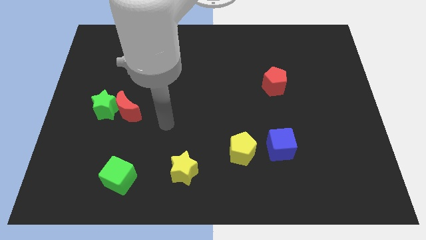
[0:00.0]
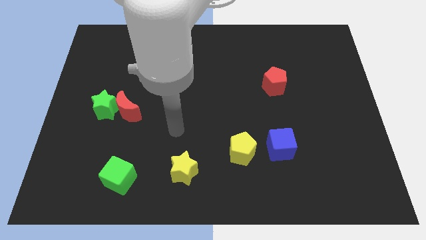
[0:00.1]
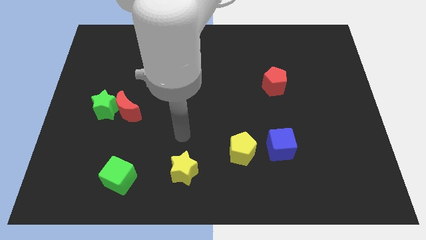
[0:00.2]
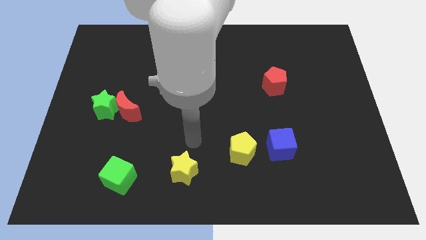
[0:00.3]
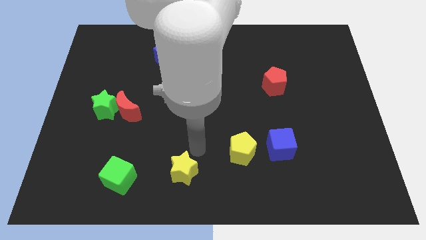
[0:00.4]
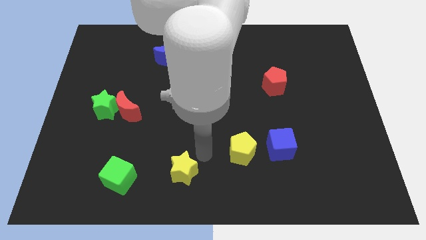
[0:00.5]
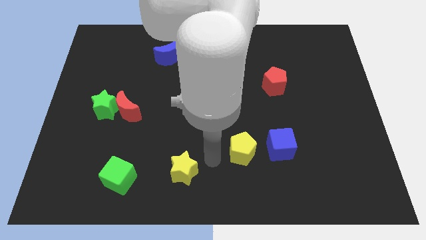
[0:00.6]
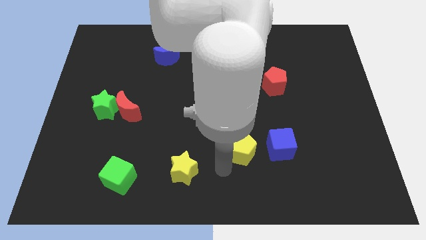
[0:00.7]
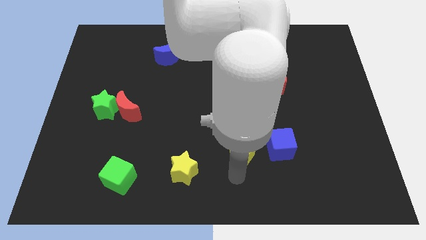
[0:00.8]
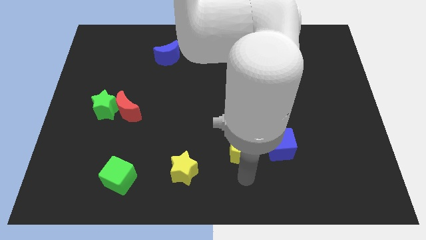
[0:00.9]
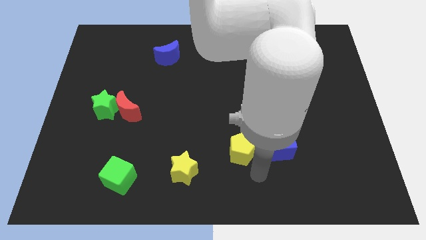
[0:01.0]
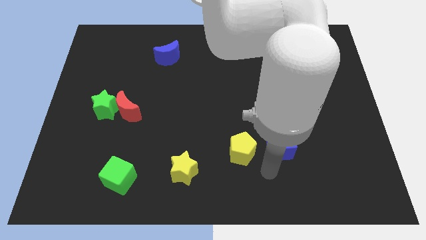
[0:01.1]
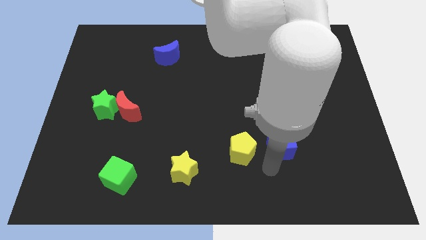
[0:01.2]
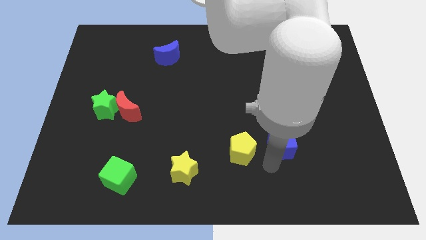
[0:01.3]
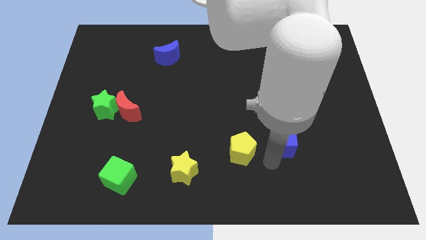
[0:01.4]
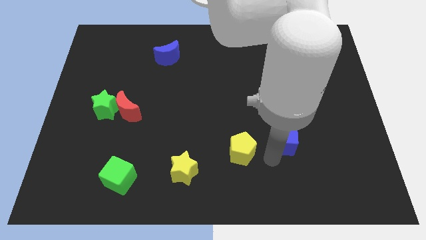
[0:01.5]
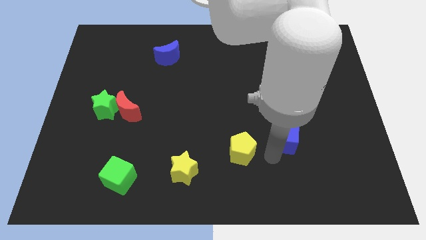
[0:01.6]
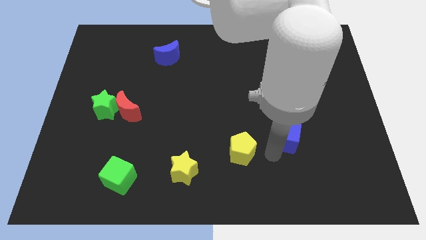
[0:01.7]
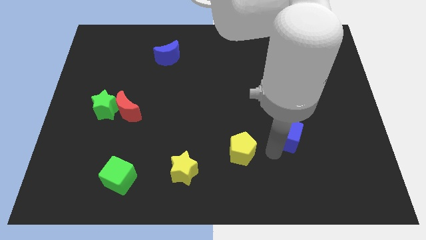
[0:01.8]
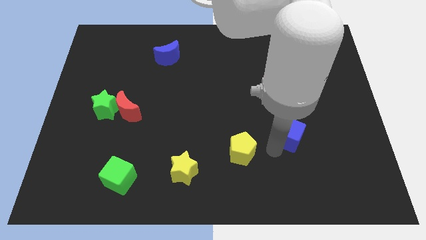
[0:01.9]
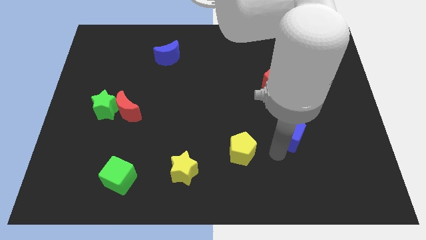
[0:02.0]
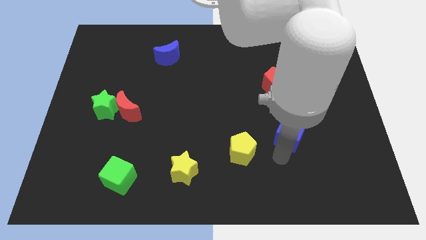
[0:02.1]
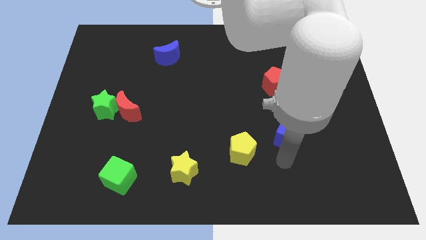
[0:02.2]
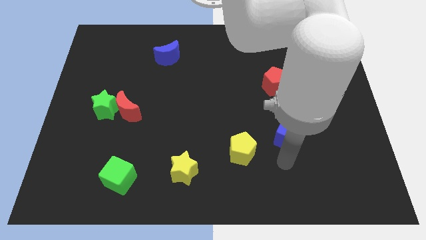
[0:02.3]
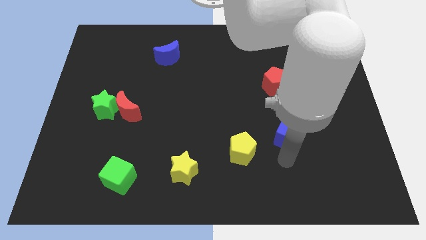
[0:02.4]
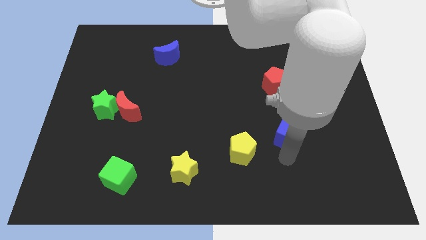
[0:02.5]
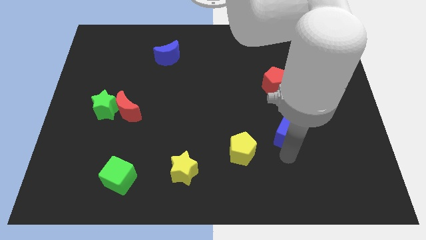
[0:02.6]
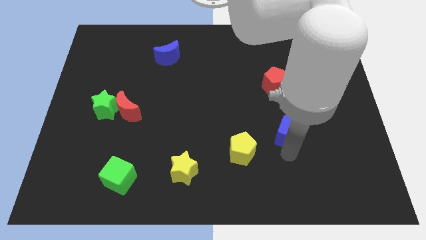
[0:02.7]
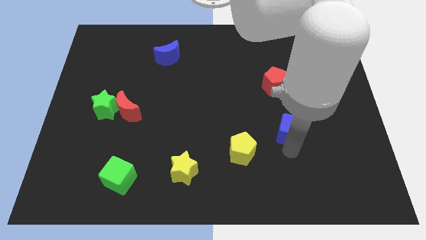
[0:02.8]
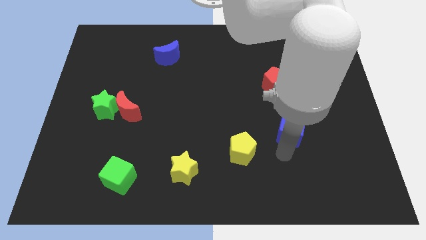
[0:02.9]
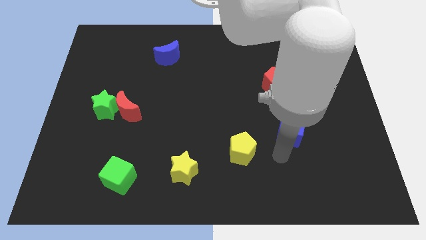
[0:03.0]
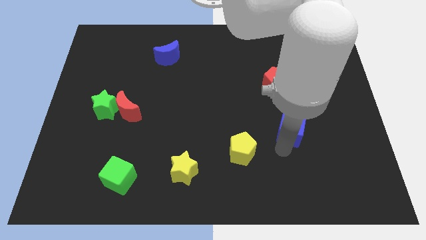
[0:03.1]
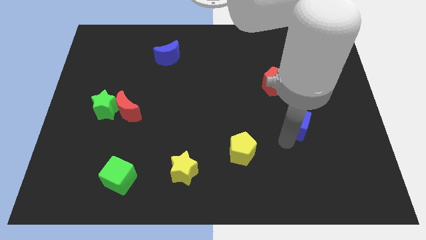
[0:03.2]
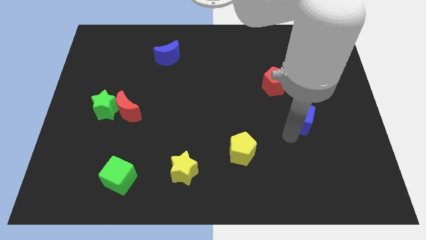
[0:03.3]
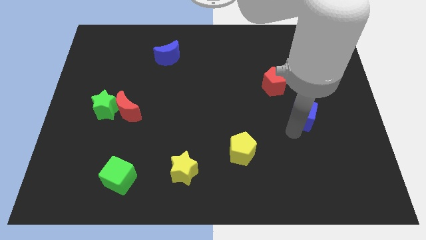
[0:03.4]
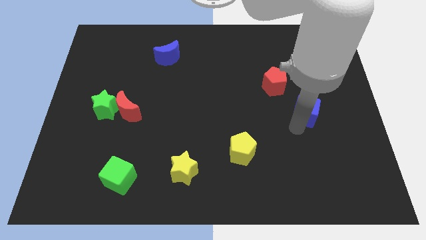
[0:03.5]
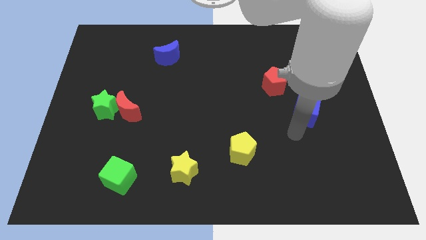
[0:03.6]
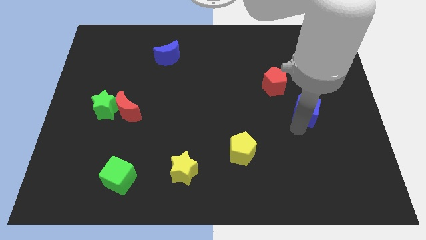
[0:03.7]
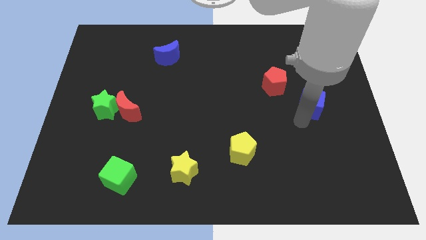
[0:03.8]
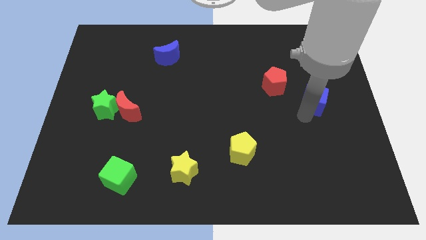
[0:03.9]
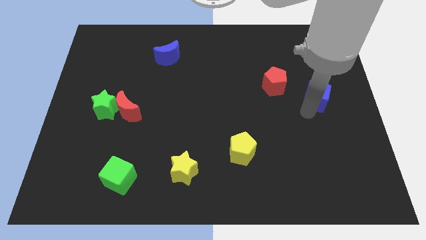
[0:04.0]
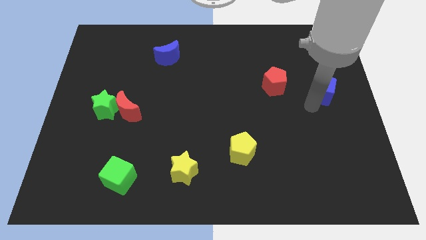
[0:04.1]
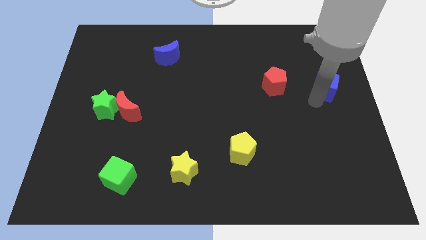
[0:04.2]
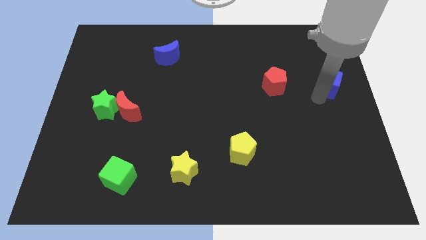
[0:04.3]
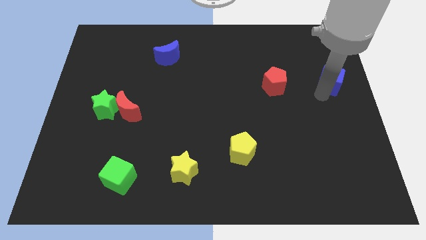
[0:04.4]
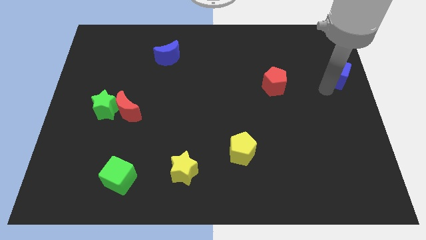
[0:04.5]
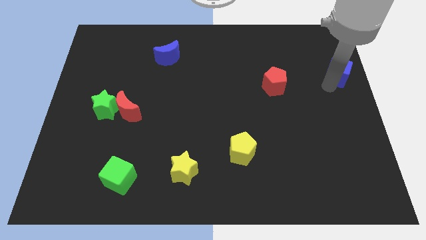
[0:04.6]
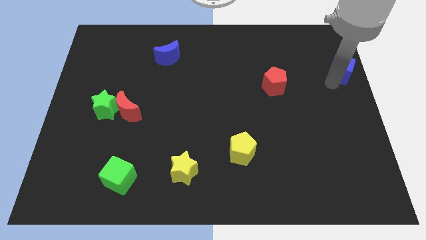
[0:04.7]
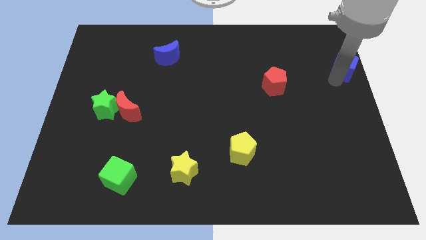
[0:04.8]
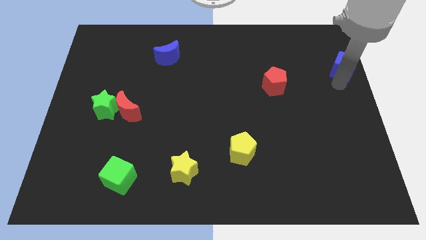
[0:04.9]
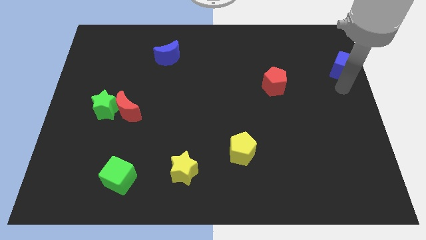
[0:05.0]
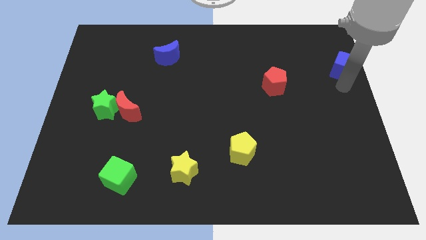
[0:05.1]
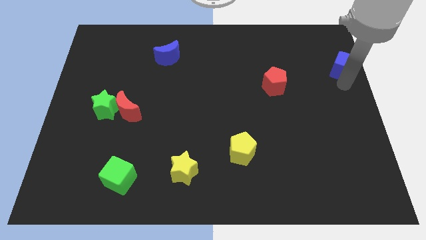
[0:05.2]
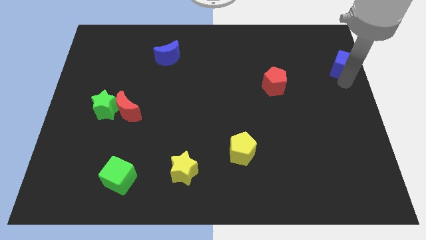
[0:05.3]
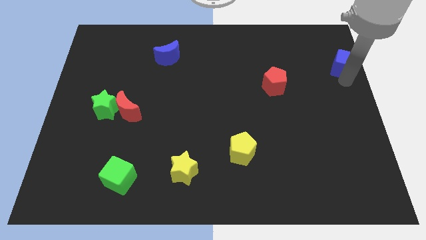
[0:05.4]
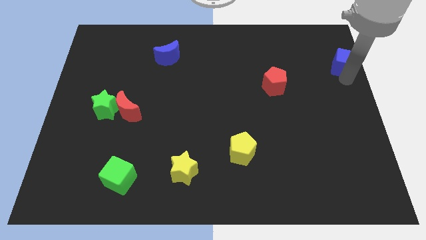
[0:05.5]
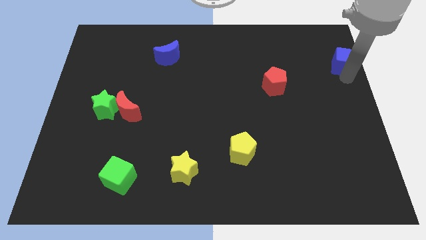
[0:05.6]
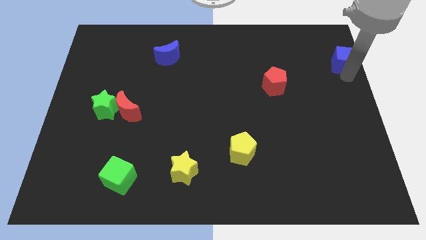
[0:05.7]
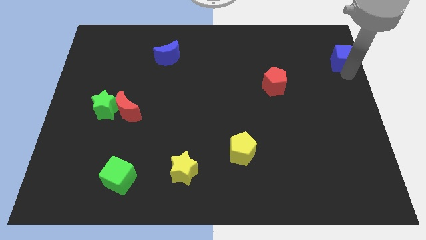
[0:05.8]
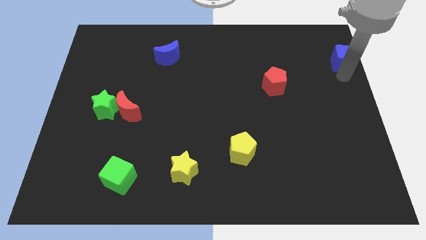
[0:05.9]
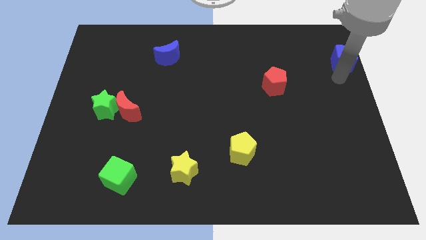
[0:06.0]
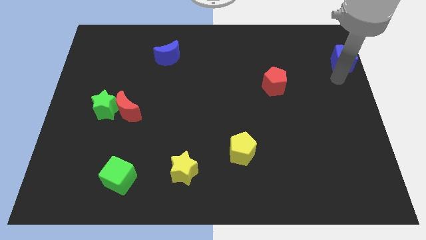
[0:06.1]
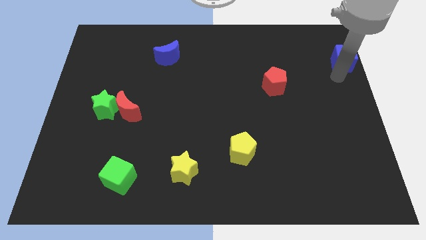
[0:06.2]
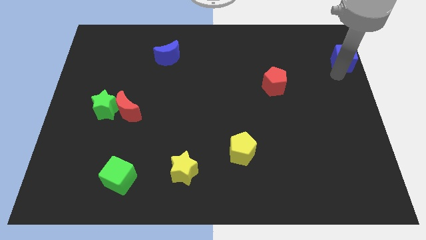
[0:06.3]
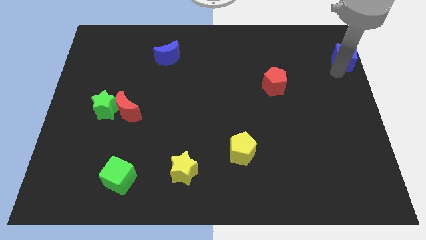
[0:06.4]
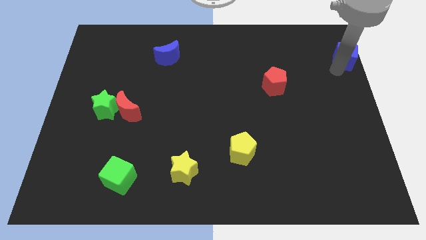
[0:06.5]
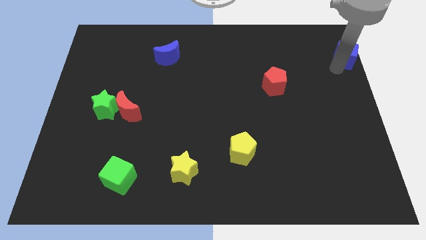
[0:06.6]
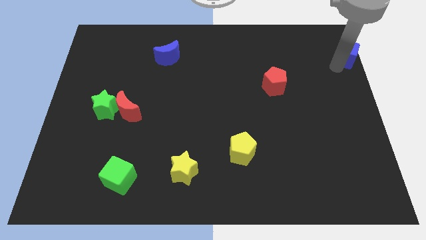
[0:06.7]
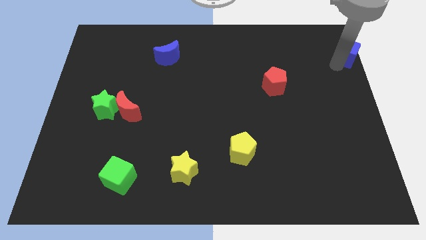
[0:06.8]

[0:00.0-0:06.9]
push the blue cube to the top right of the board

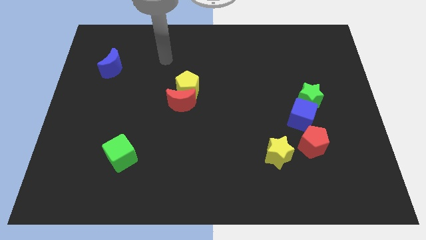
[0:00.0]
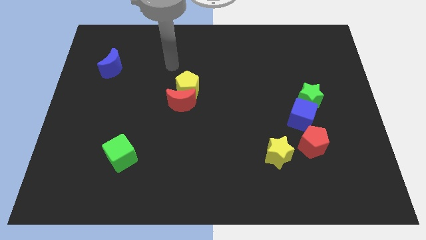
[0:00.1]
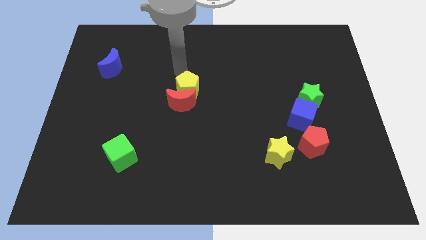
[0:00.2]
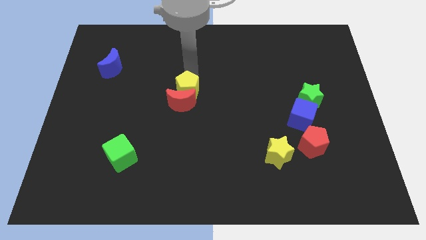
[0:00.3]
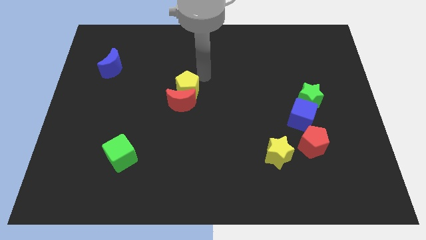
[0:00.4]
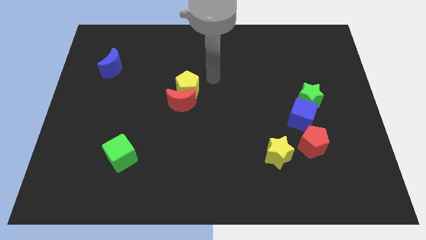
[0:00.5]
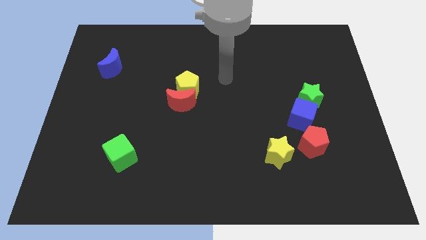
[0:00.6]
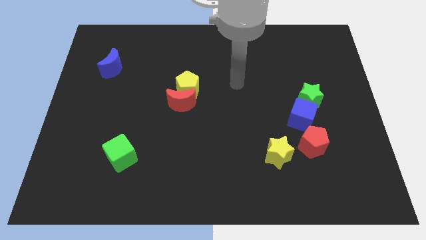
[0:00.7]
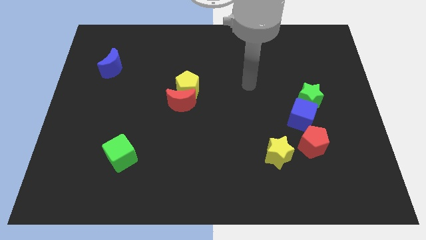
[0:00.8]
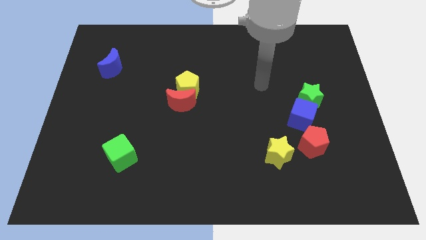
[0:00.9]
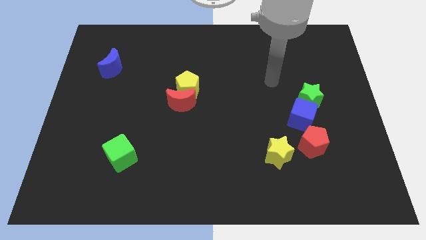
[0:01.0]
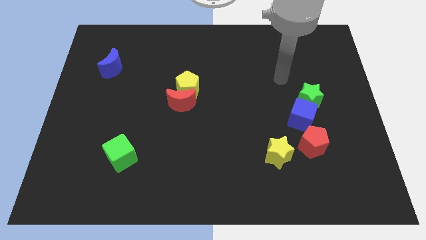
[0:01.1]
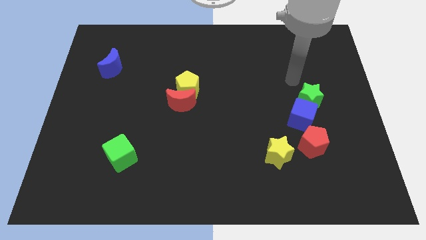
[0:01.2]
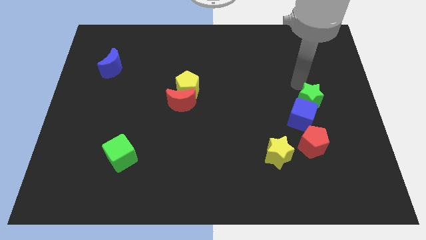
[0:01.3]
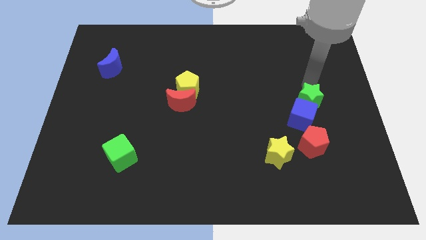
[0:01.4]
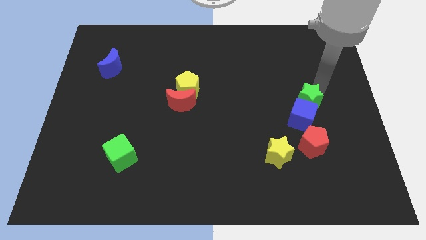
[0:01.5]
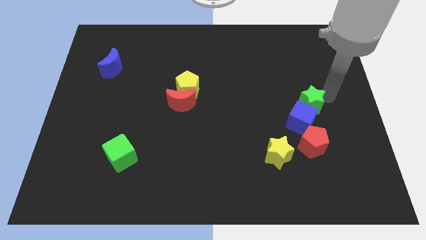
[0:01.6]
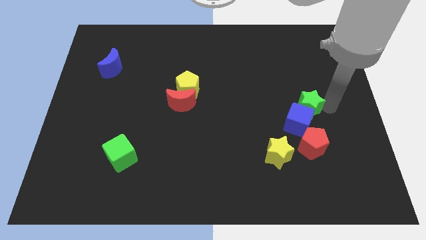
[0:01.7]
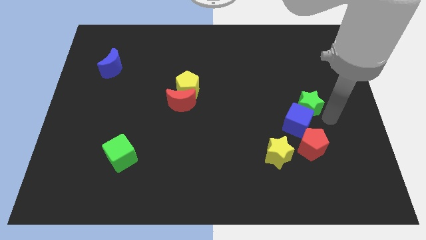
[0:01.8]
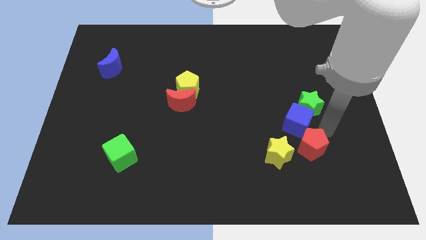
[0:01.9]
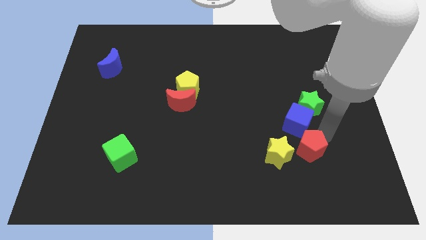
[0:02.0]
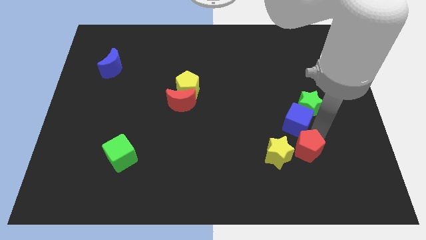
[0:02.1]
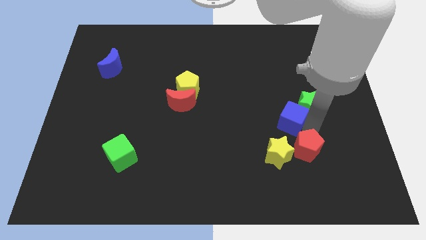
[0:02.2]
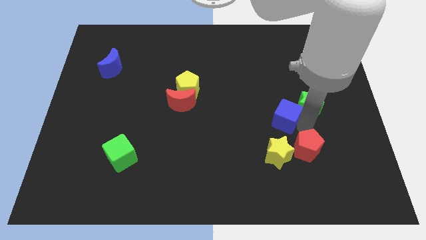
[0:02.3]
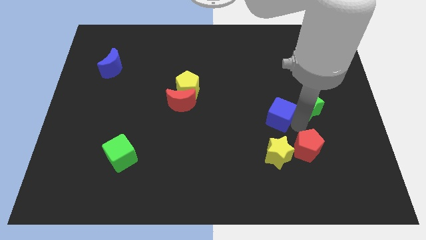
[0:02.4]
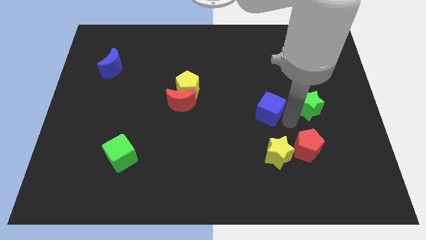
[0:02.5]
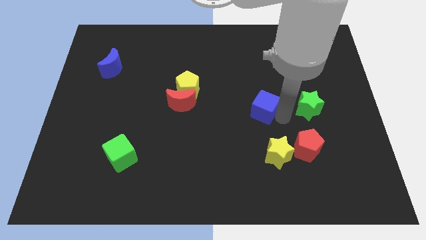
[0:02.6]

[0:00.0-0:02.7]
move the blue cube to the middle of the board
